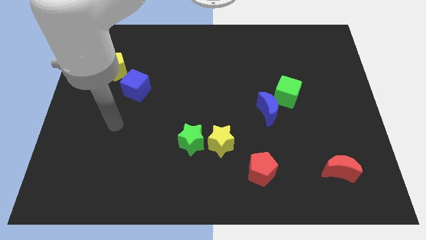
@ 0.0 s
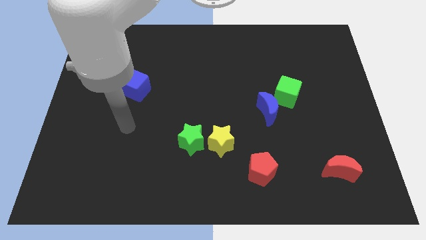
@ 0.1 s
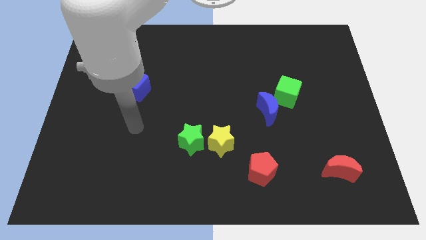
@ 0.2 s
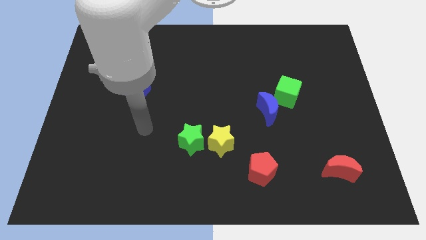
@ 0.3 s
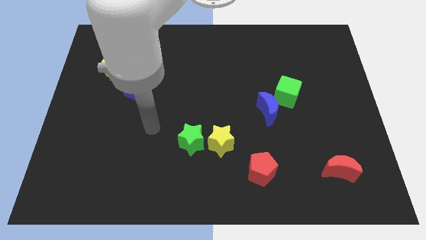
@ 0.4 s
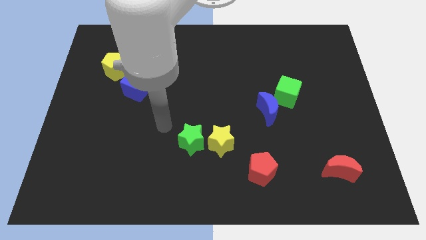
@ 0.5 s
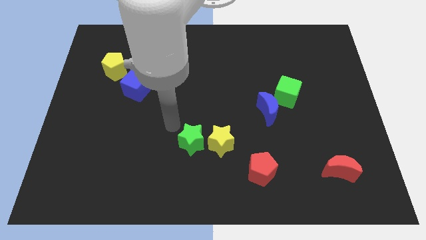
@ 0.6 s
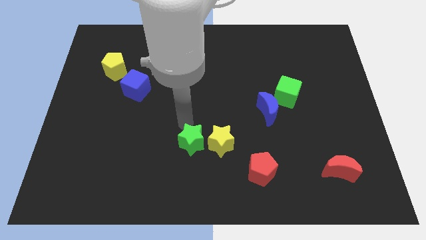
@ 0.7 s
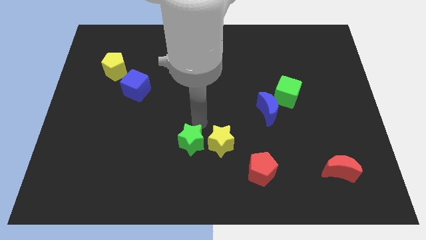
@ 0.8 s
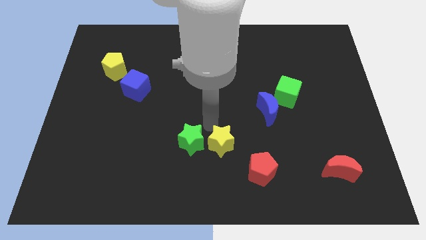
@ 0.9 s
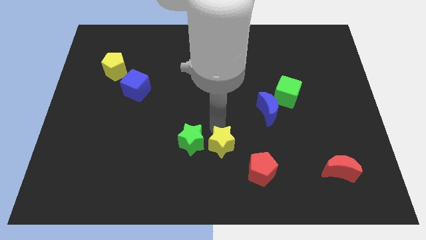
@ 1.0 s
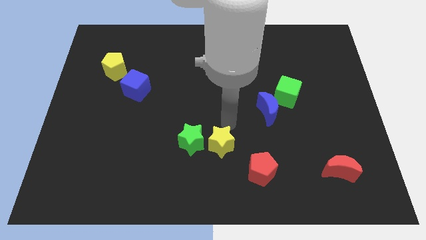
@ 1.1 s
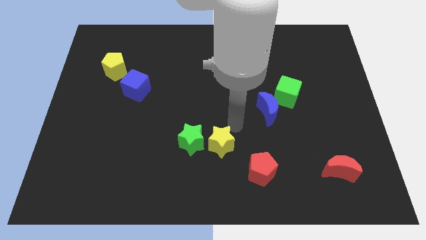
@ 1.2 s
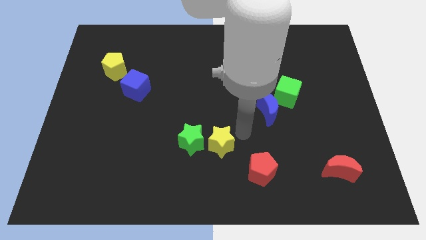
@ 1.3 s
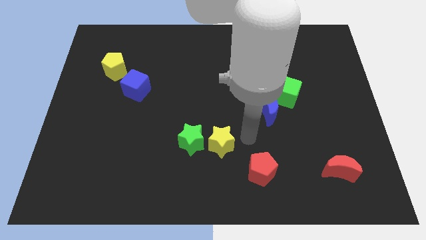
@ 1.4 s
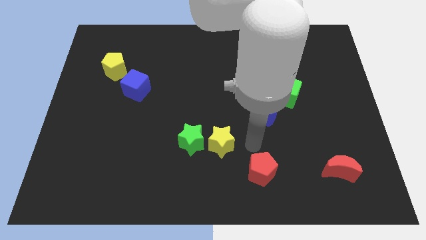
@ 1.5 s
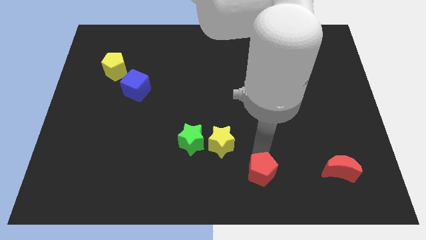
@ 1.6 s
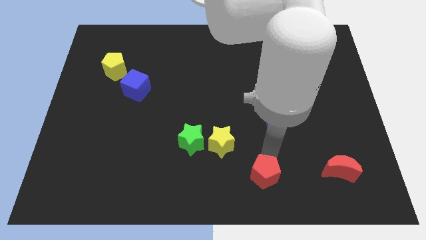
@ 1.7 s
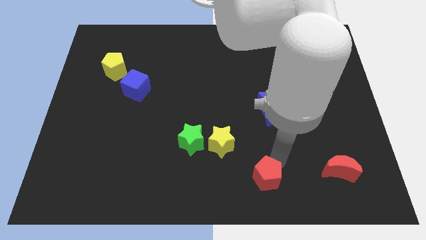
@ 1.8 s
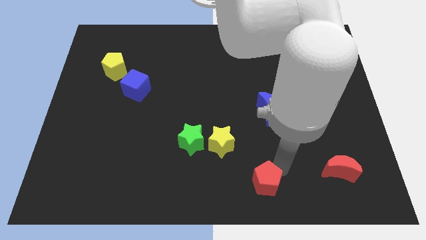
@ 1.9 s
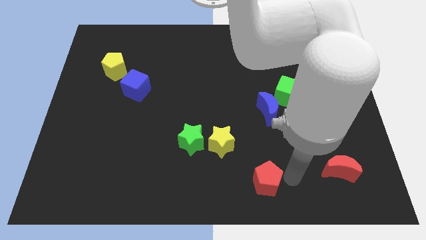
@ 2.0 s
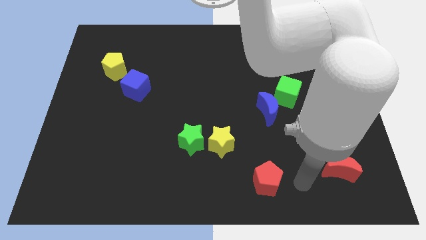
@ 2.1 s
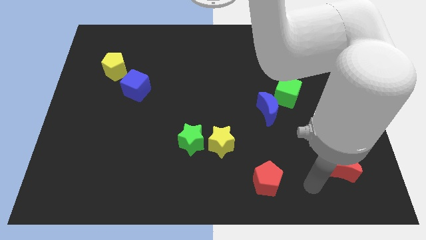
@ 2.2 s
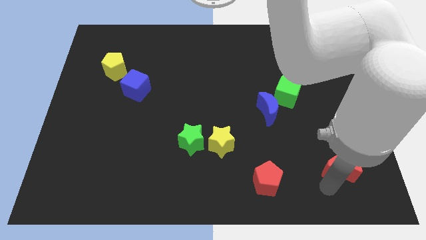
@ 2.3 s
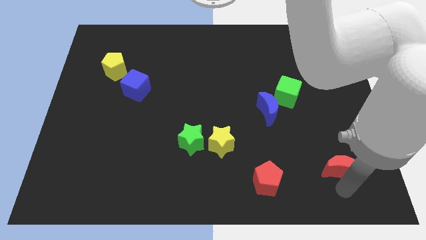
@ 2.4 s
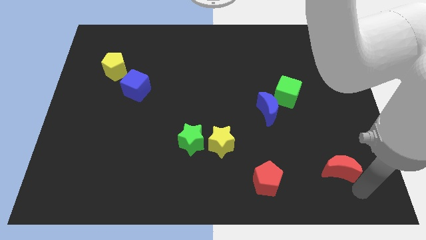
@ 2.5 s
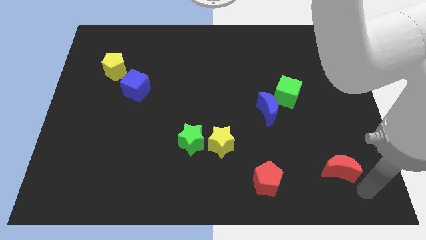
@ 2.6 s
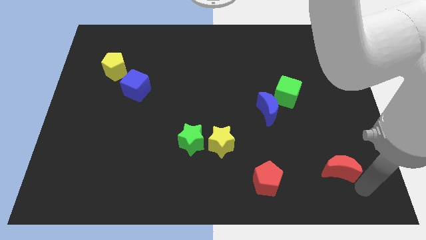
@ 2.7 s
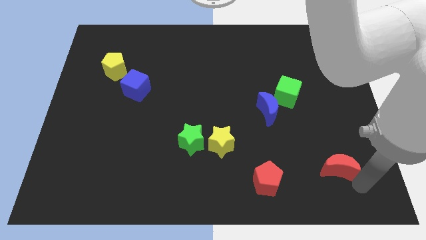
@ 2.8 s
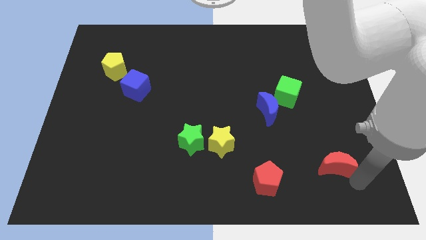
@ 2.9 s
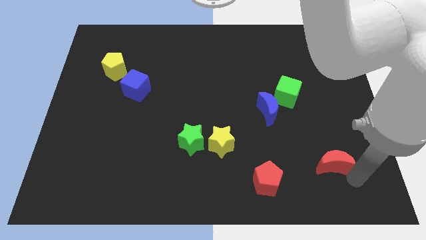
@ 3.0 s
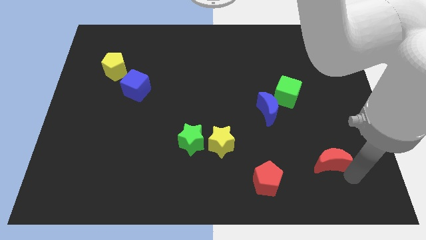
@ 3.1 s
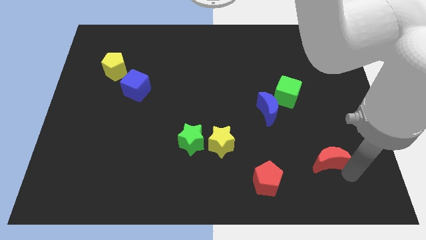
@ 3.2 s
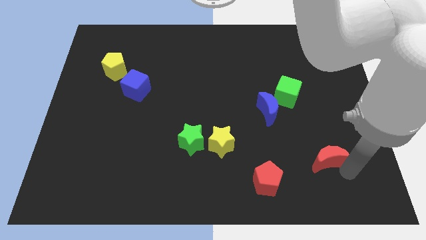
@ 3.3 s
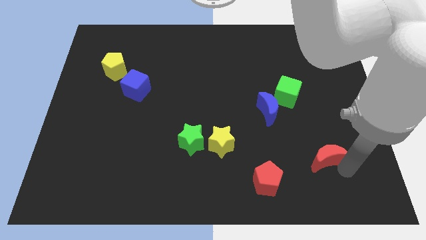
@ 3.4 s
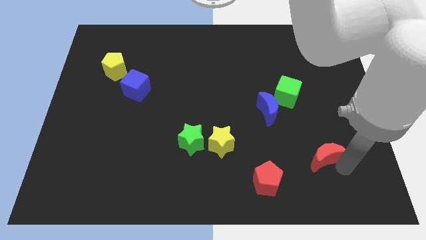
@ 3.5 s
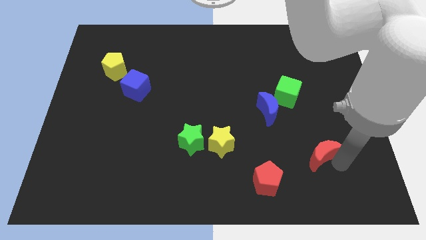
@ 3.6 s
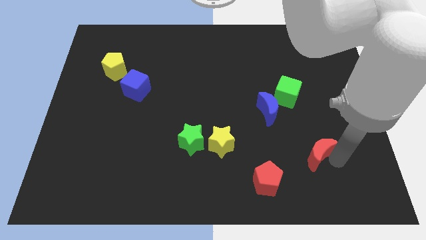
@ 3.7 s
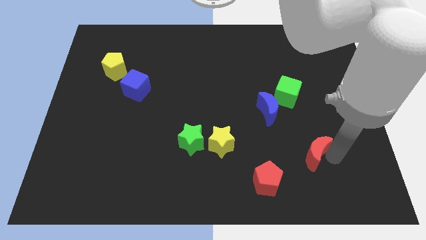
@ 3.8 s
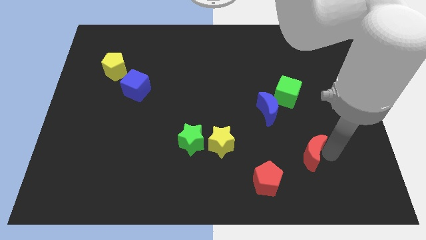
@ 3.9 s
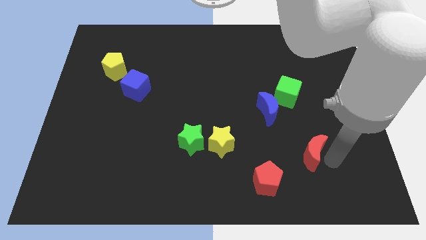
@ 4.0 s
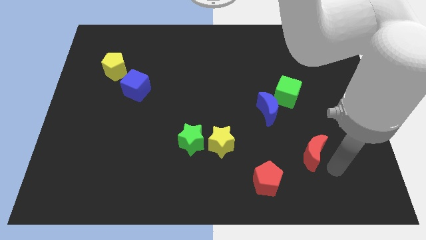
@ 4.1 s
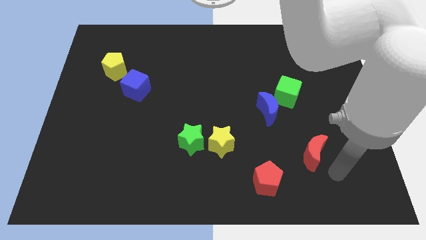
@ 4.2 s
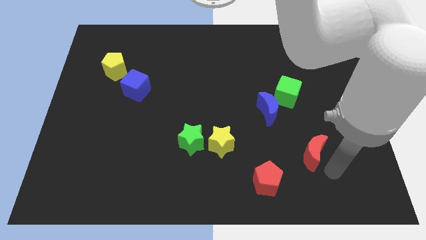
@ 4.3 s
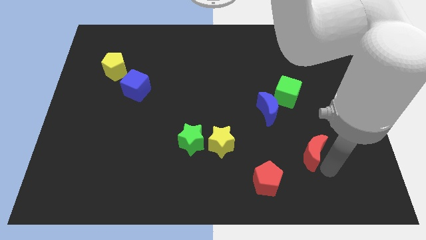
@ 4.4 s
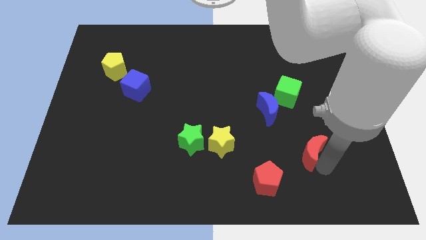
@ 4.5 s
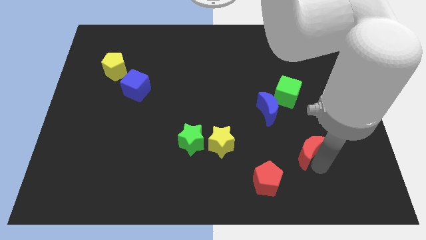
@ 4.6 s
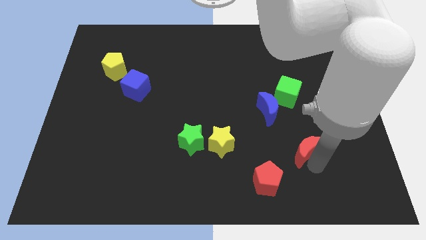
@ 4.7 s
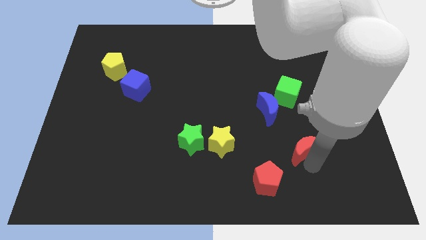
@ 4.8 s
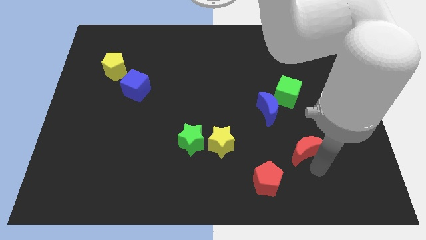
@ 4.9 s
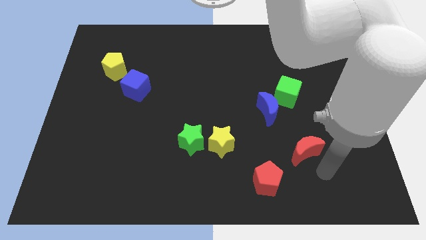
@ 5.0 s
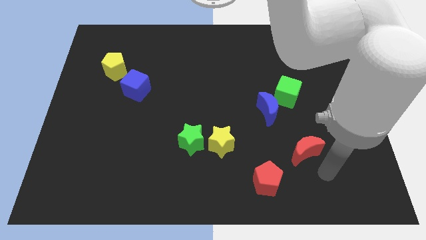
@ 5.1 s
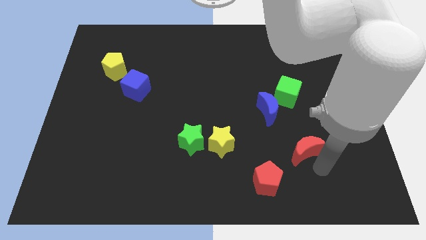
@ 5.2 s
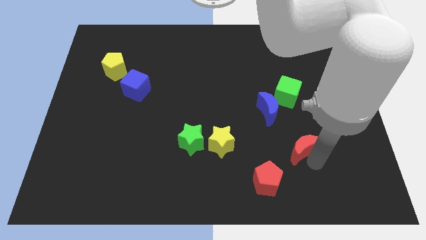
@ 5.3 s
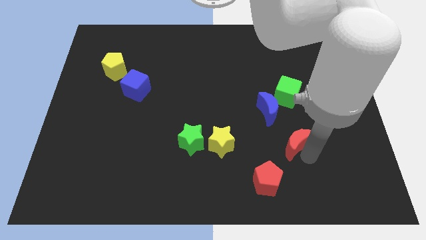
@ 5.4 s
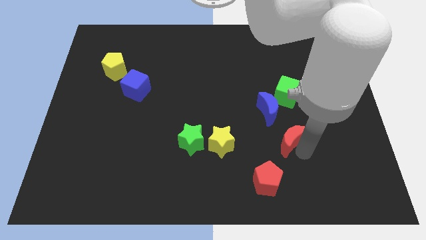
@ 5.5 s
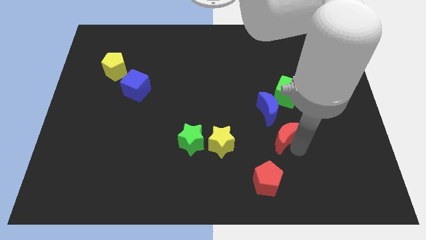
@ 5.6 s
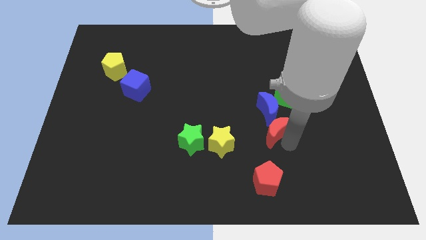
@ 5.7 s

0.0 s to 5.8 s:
put the red moon next to the blue moon

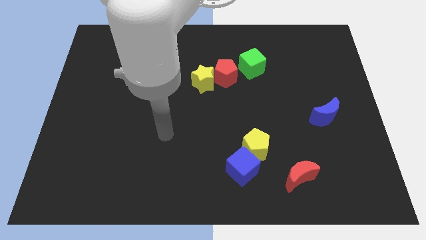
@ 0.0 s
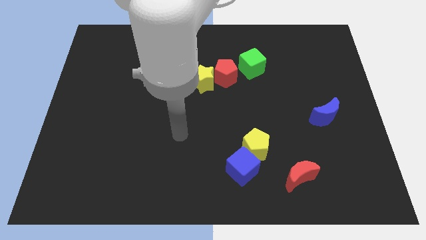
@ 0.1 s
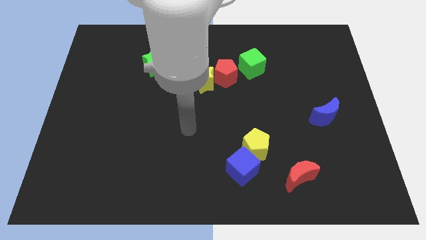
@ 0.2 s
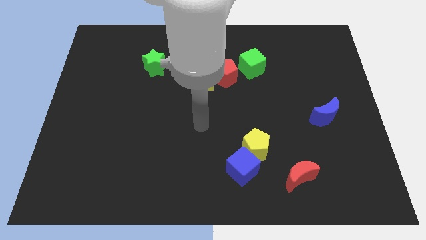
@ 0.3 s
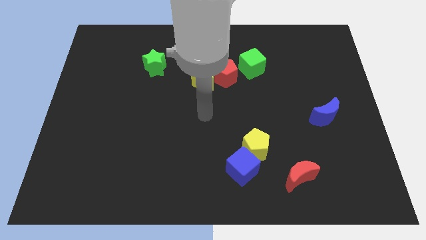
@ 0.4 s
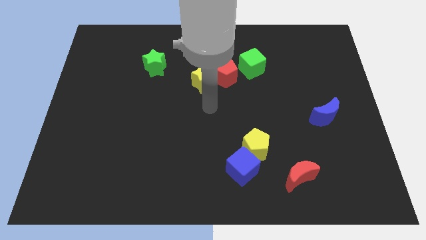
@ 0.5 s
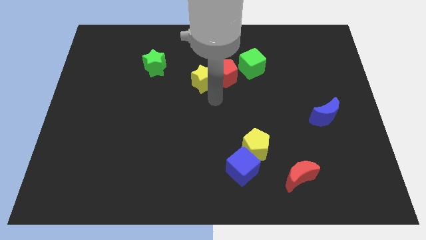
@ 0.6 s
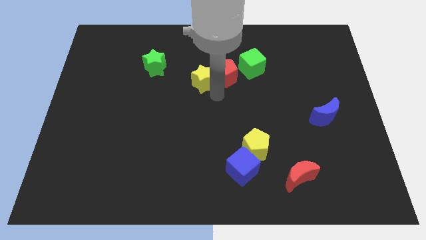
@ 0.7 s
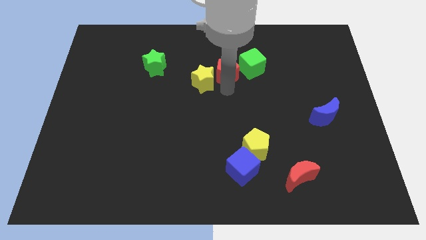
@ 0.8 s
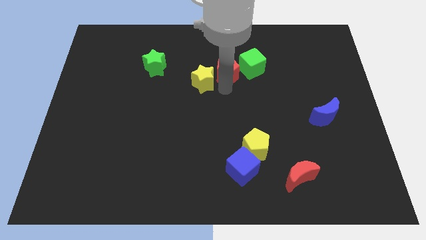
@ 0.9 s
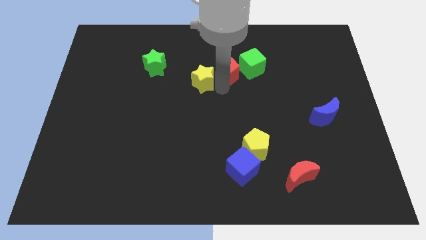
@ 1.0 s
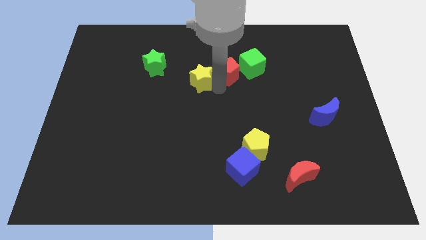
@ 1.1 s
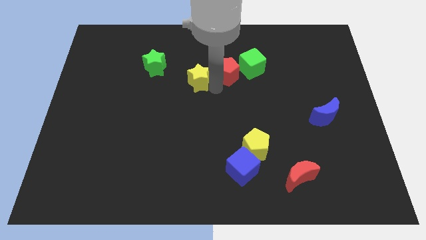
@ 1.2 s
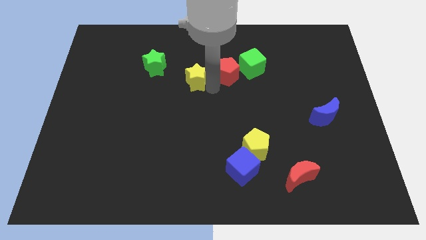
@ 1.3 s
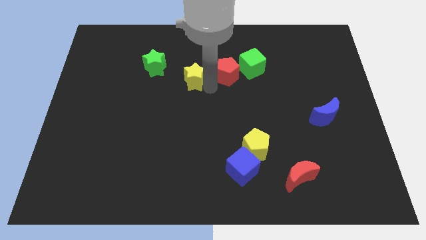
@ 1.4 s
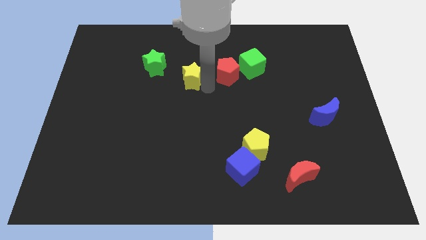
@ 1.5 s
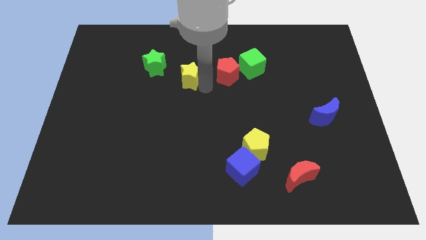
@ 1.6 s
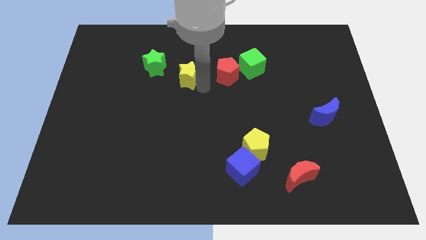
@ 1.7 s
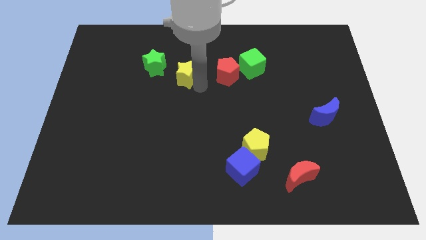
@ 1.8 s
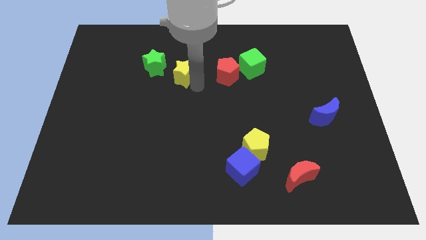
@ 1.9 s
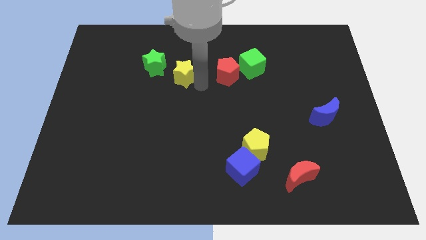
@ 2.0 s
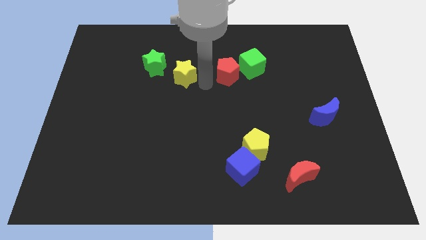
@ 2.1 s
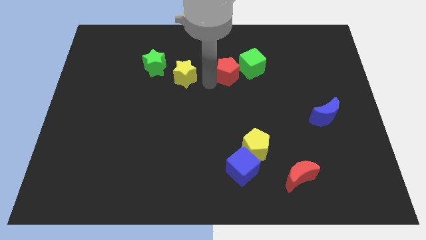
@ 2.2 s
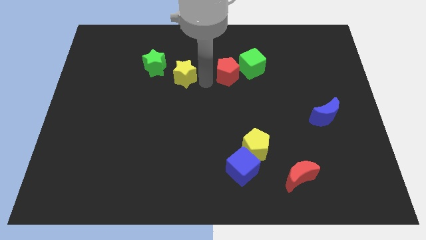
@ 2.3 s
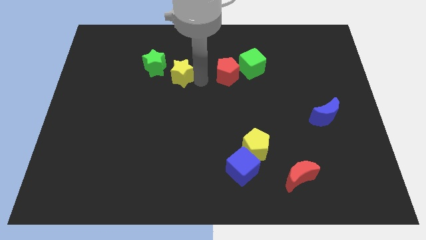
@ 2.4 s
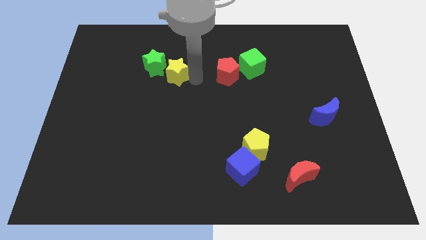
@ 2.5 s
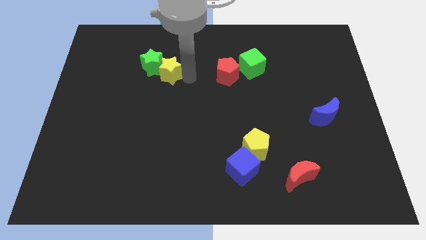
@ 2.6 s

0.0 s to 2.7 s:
move the yellow star to the green star
